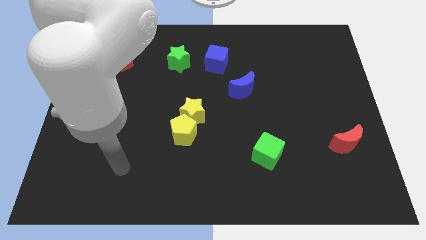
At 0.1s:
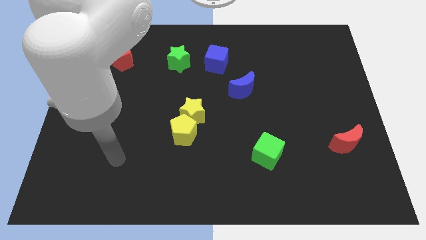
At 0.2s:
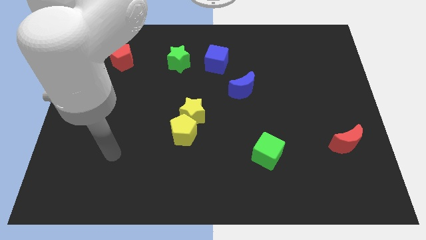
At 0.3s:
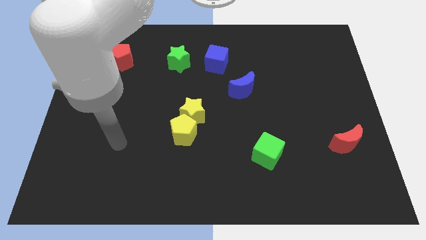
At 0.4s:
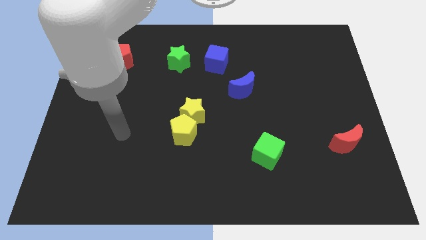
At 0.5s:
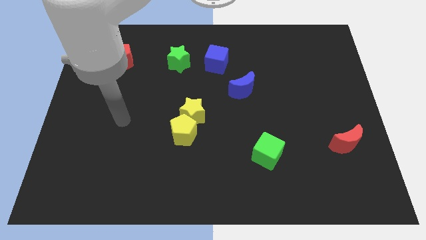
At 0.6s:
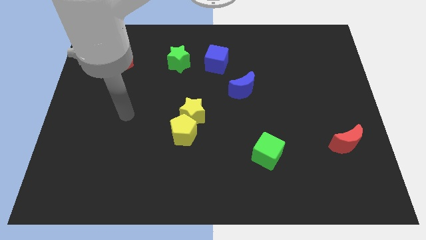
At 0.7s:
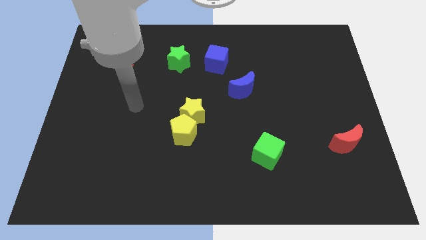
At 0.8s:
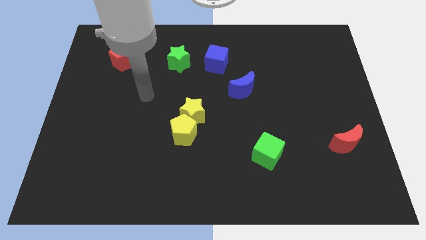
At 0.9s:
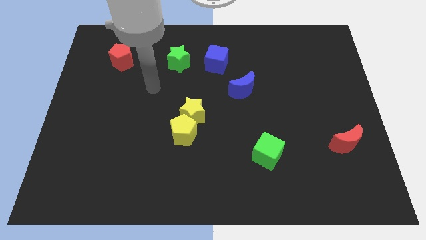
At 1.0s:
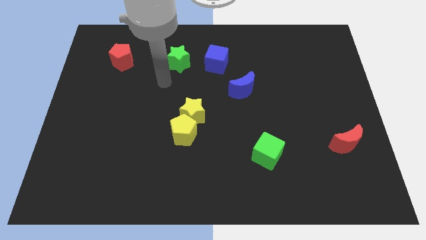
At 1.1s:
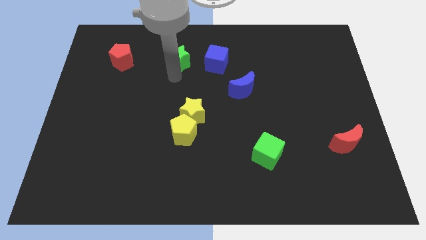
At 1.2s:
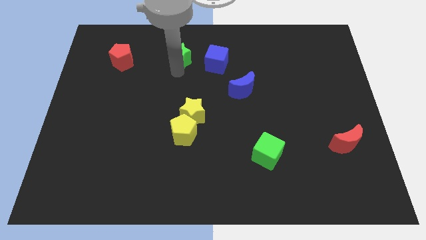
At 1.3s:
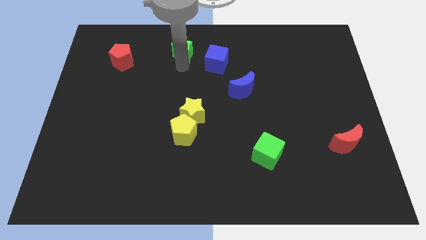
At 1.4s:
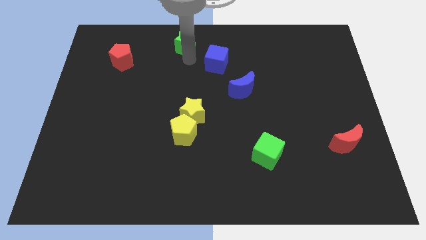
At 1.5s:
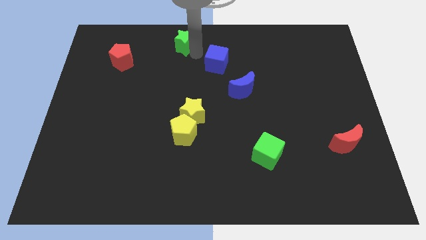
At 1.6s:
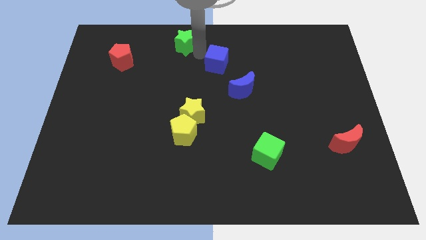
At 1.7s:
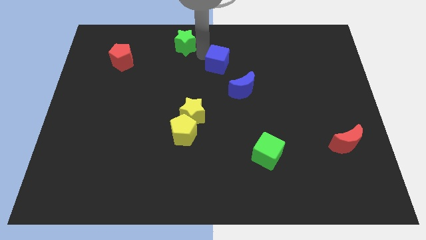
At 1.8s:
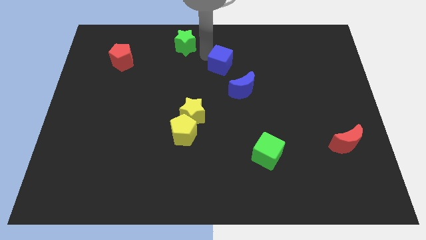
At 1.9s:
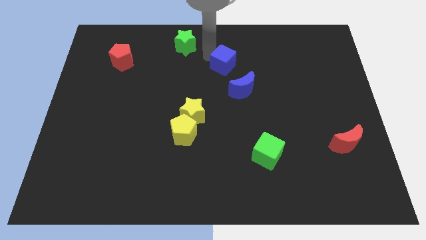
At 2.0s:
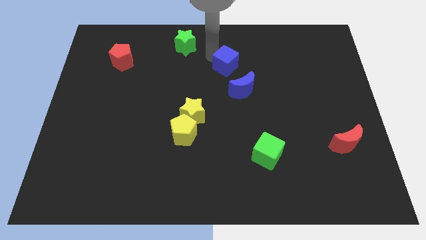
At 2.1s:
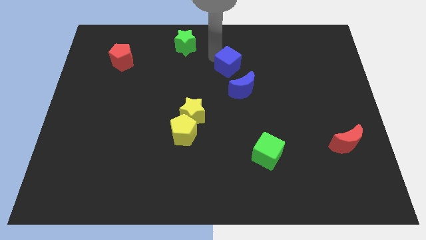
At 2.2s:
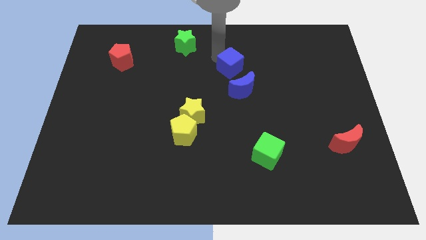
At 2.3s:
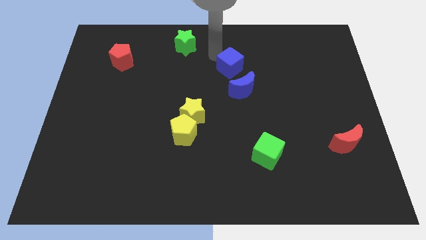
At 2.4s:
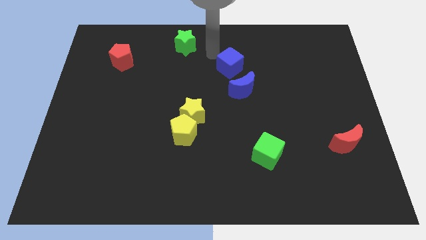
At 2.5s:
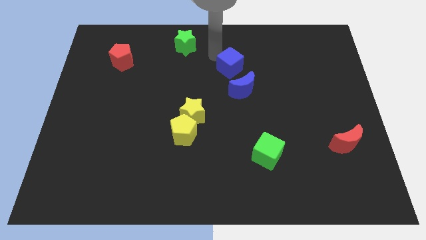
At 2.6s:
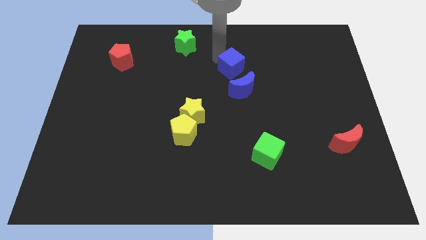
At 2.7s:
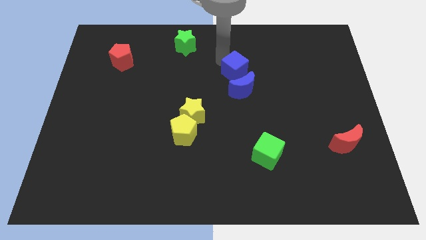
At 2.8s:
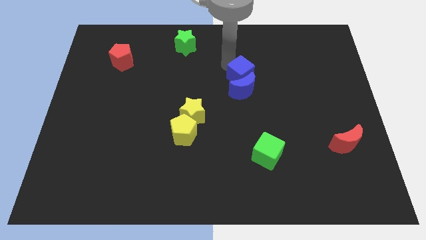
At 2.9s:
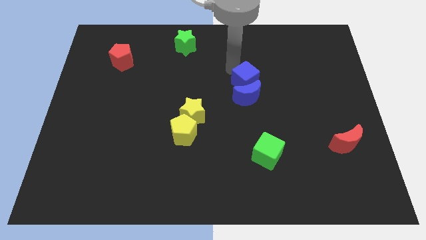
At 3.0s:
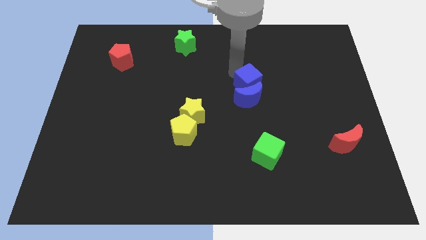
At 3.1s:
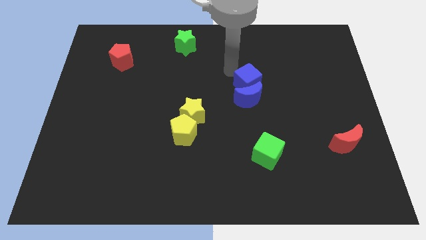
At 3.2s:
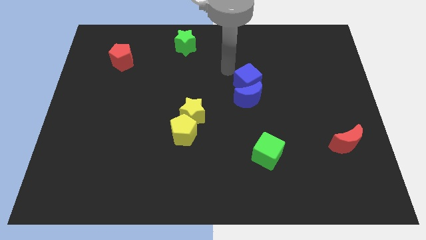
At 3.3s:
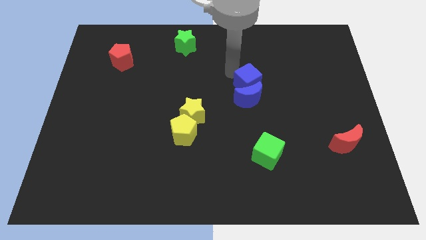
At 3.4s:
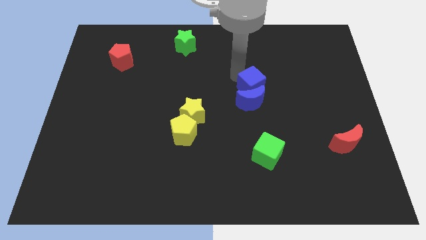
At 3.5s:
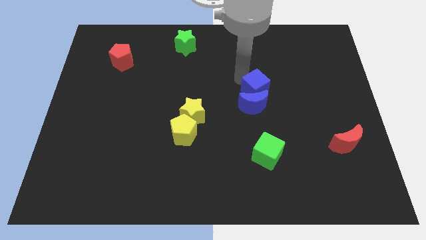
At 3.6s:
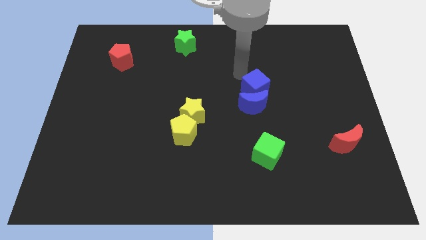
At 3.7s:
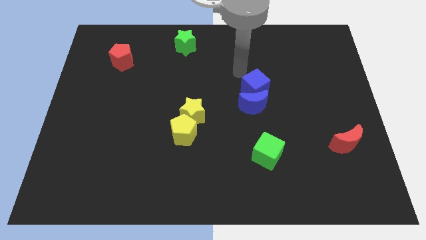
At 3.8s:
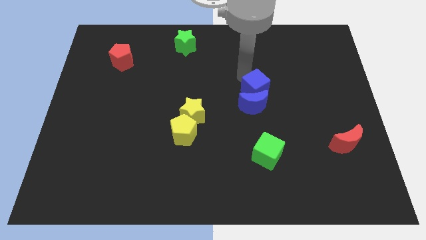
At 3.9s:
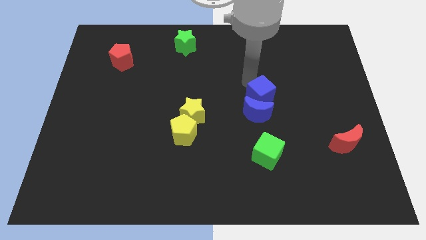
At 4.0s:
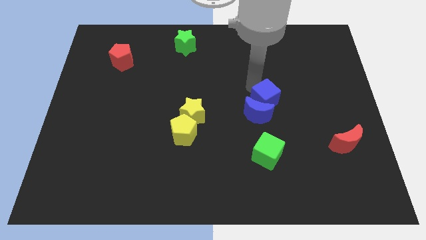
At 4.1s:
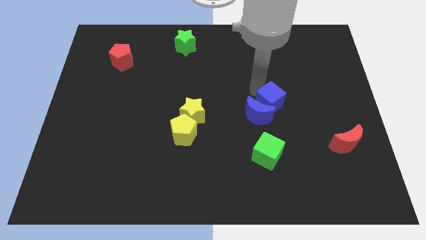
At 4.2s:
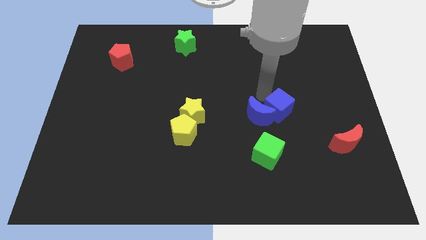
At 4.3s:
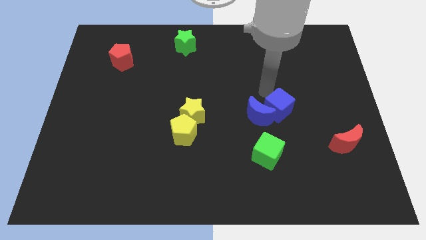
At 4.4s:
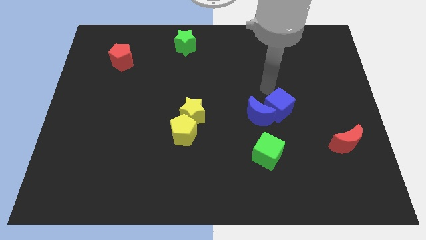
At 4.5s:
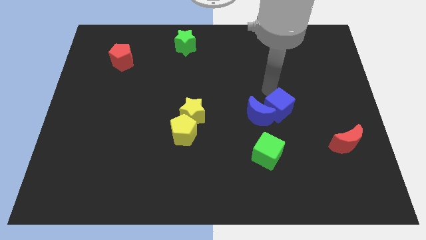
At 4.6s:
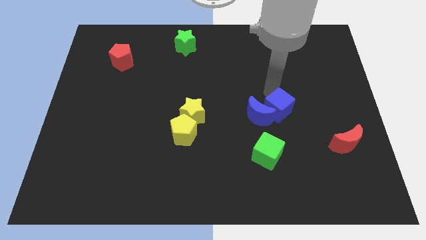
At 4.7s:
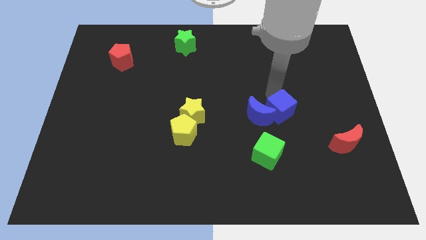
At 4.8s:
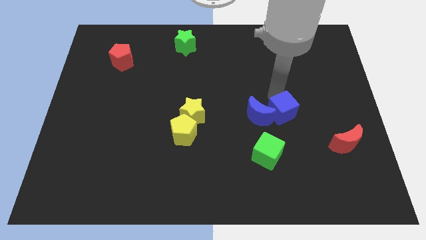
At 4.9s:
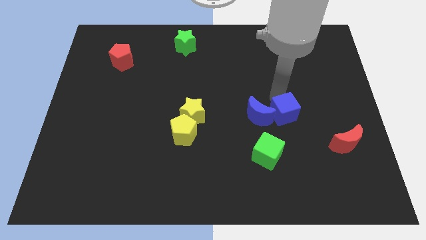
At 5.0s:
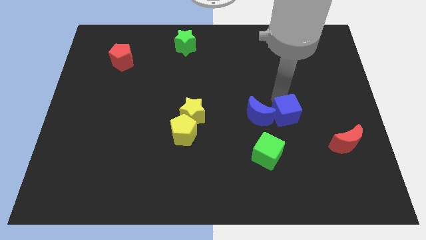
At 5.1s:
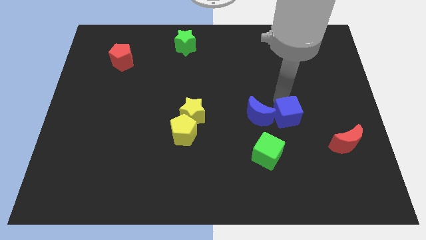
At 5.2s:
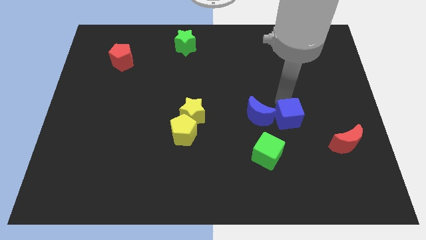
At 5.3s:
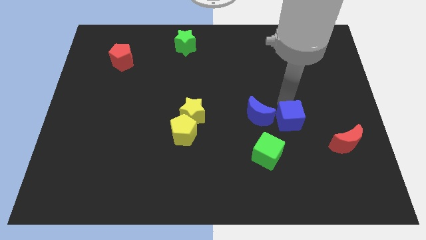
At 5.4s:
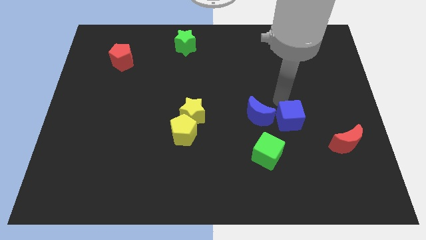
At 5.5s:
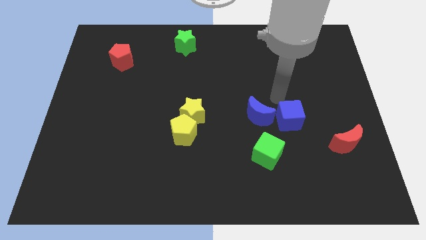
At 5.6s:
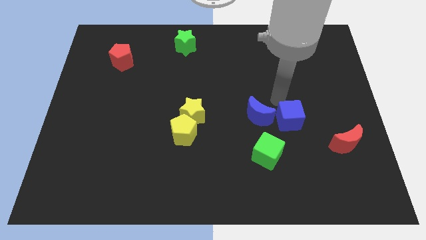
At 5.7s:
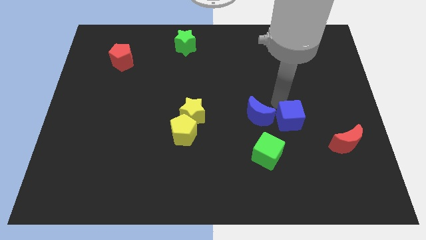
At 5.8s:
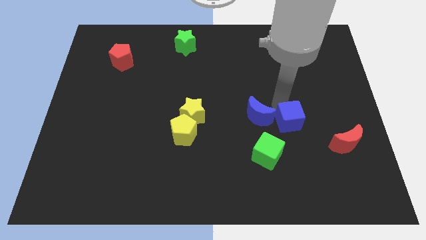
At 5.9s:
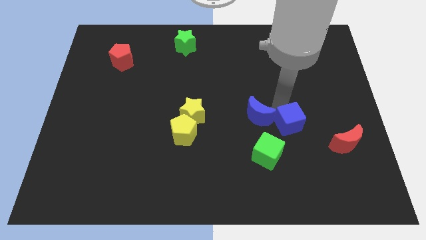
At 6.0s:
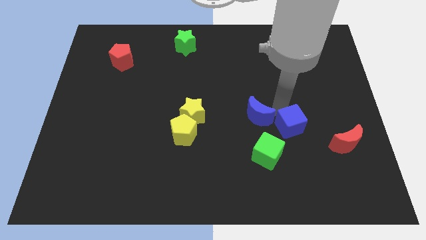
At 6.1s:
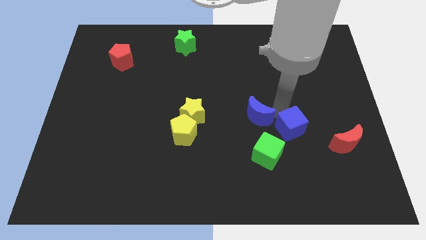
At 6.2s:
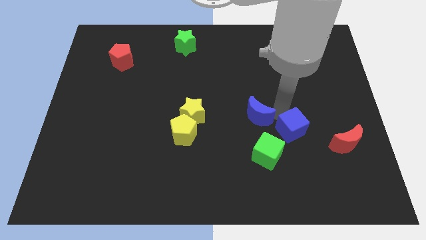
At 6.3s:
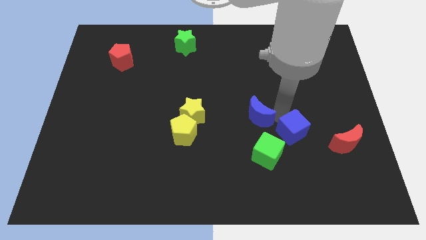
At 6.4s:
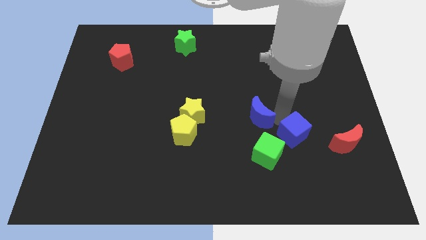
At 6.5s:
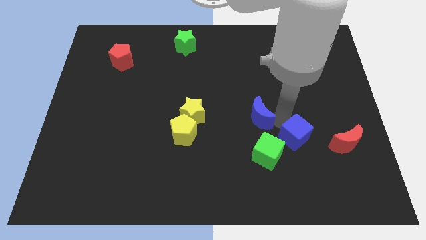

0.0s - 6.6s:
put the blue cube to the right of the green cube

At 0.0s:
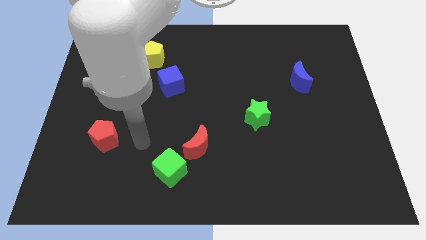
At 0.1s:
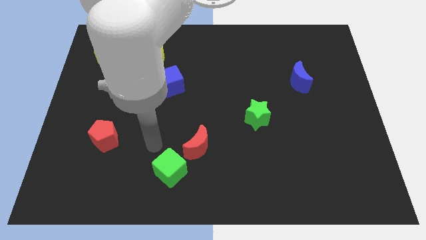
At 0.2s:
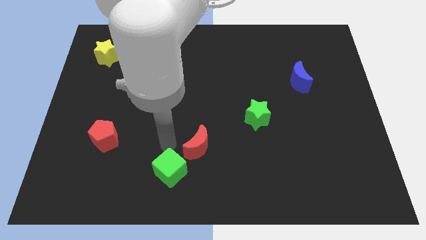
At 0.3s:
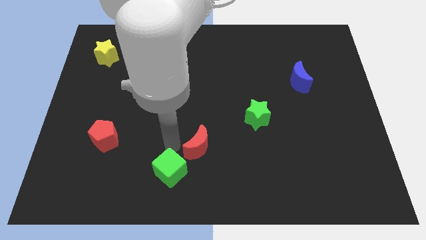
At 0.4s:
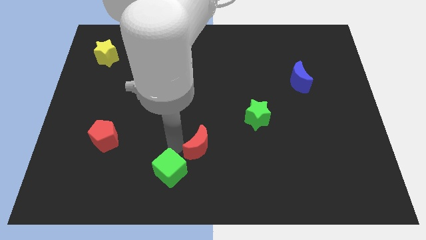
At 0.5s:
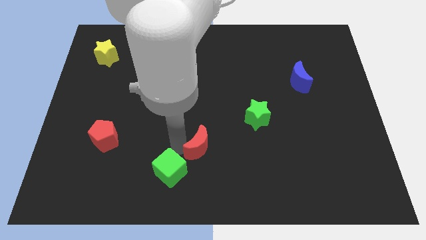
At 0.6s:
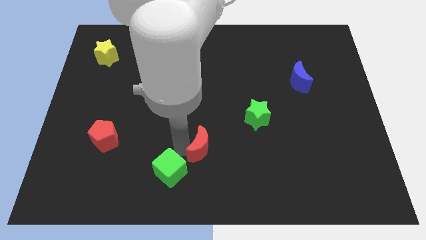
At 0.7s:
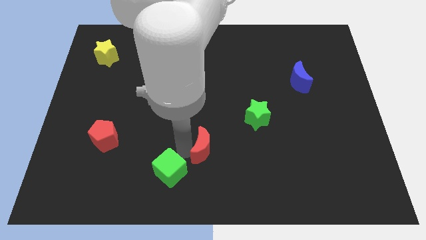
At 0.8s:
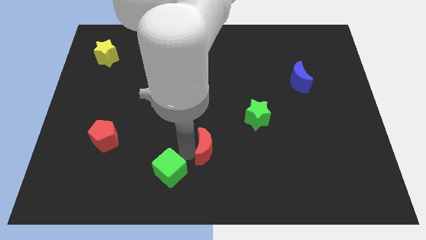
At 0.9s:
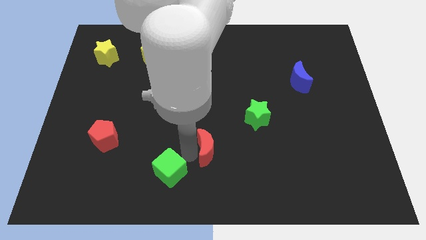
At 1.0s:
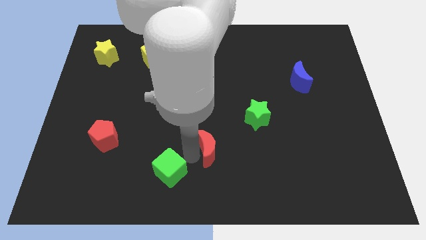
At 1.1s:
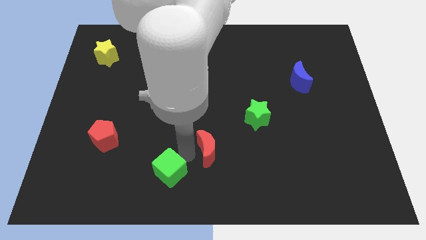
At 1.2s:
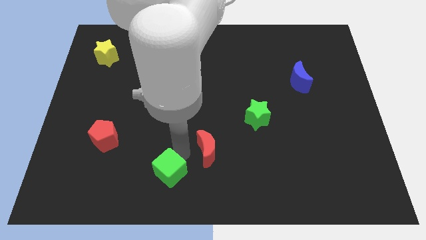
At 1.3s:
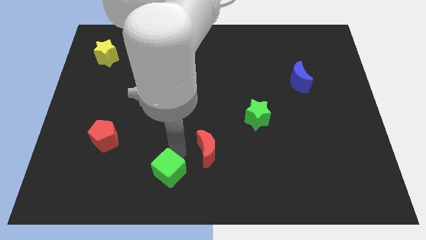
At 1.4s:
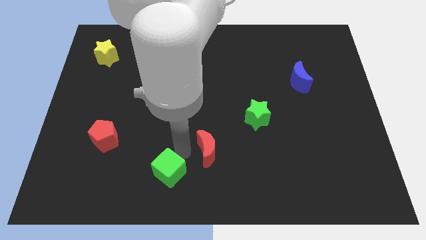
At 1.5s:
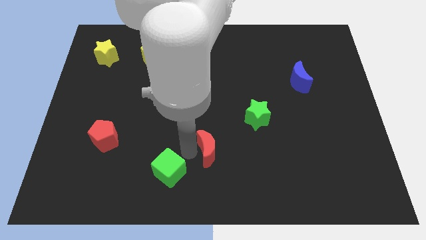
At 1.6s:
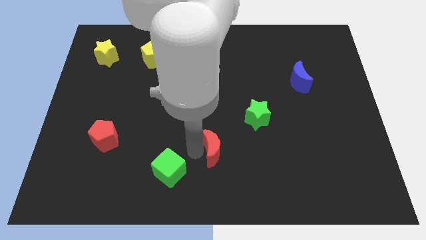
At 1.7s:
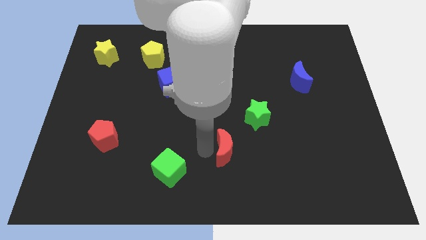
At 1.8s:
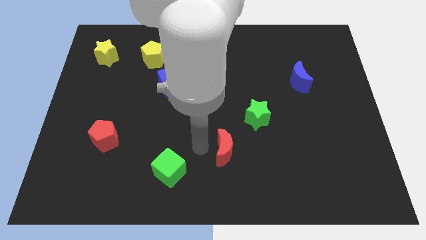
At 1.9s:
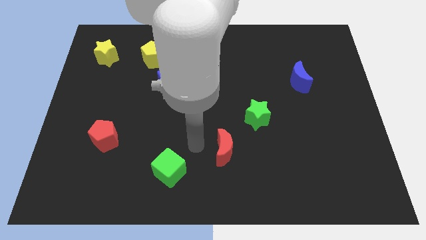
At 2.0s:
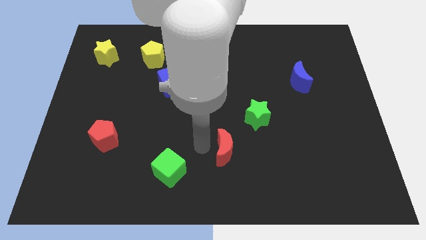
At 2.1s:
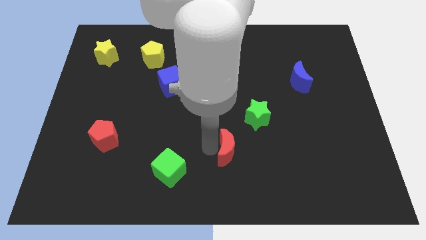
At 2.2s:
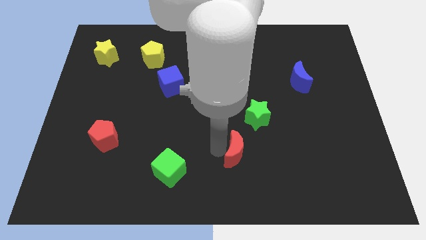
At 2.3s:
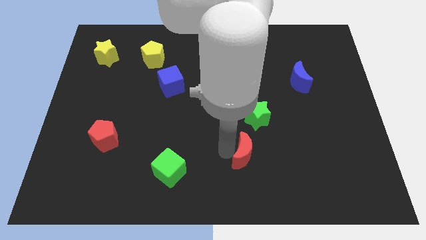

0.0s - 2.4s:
move the red moon to the bottom side of the green star
